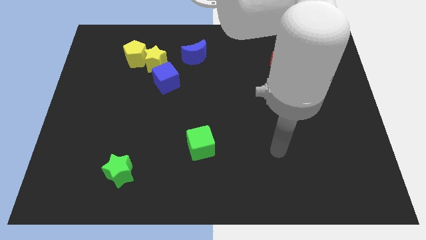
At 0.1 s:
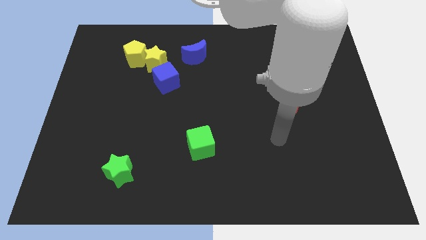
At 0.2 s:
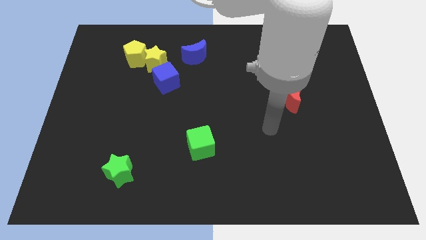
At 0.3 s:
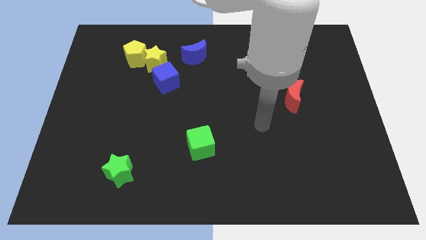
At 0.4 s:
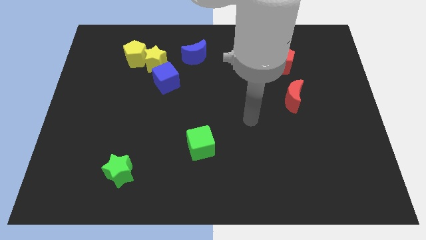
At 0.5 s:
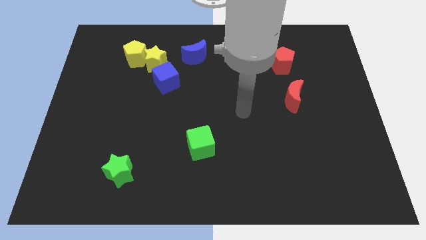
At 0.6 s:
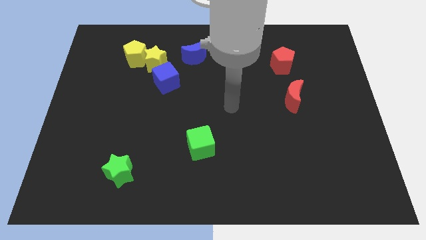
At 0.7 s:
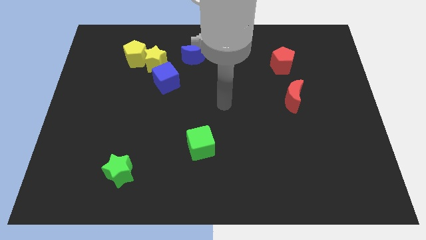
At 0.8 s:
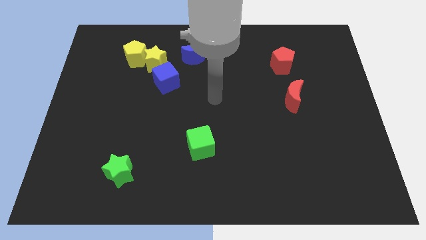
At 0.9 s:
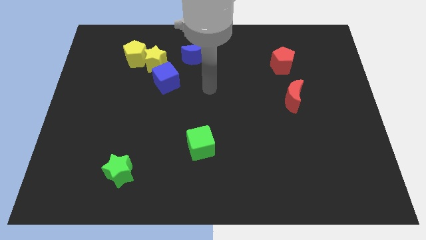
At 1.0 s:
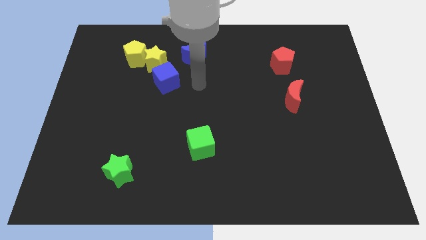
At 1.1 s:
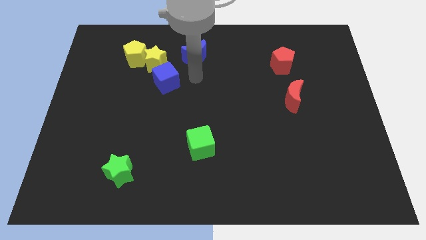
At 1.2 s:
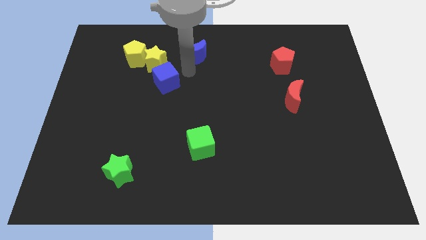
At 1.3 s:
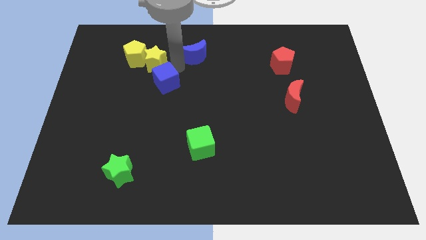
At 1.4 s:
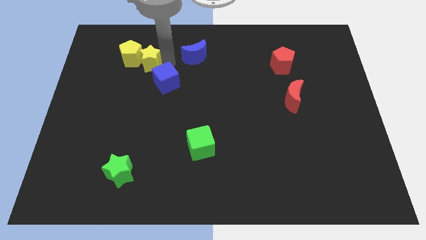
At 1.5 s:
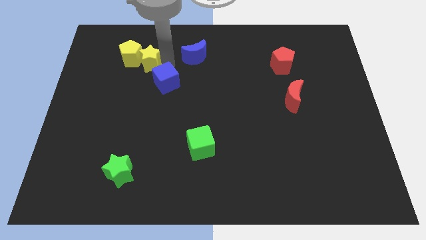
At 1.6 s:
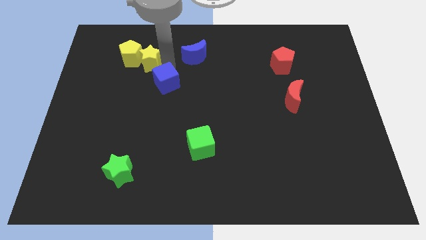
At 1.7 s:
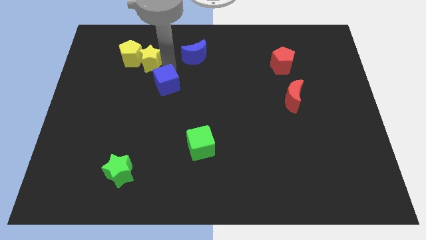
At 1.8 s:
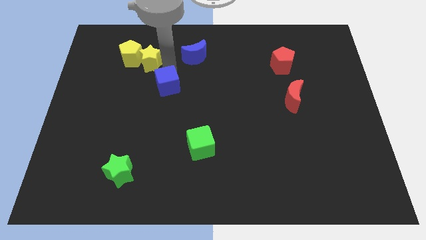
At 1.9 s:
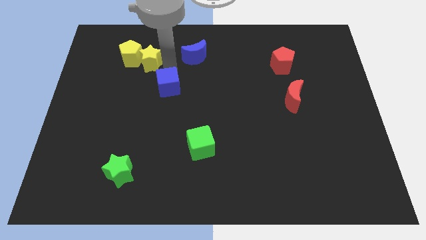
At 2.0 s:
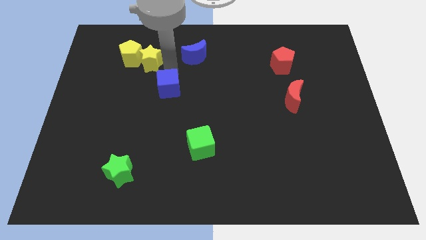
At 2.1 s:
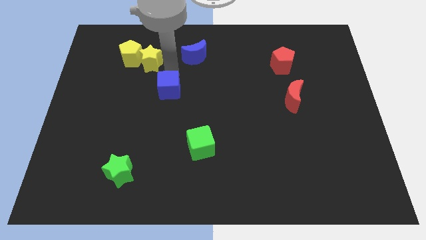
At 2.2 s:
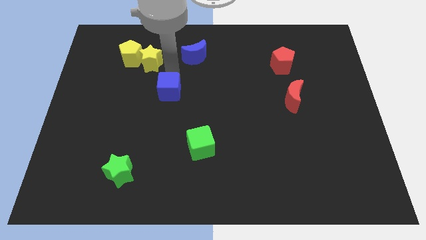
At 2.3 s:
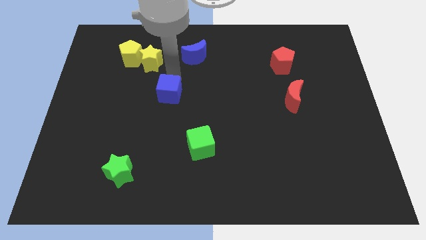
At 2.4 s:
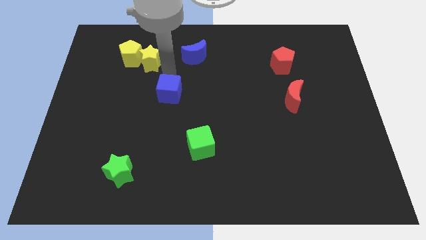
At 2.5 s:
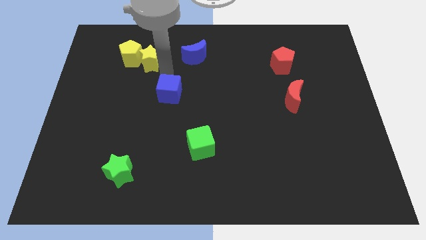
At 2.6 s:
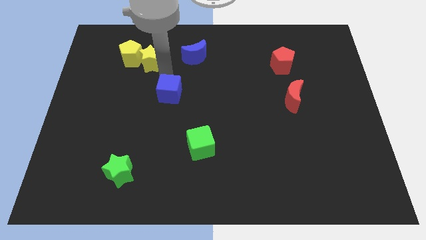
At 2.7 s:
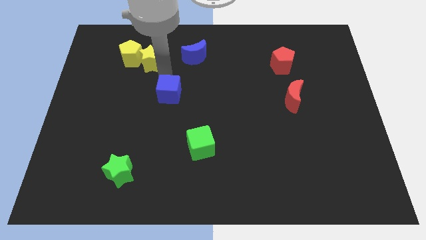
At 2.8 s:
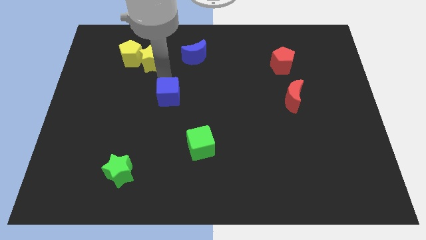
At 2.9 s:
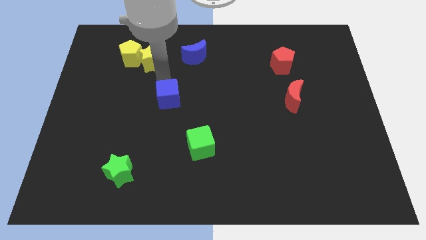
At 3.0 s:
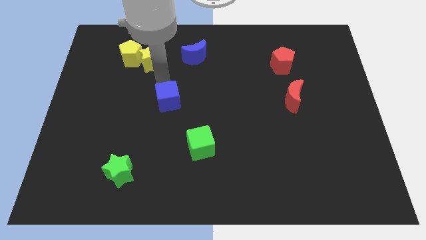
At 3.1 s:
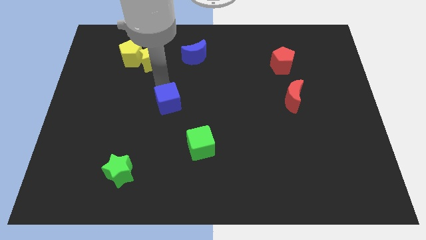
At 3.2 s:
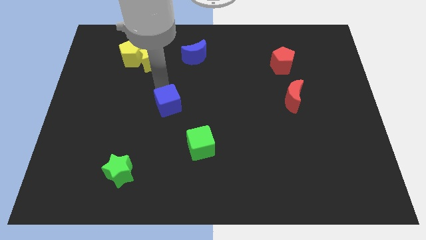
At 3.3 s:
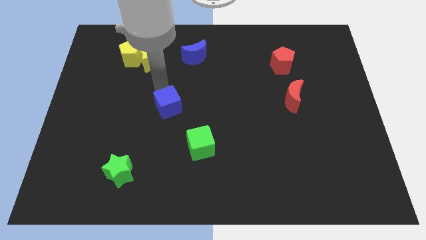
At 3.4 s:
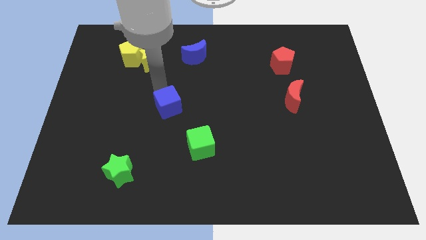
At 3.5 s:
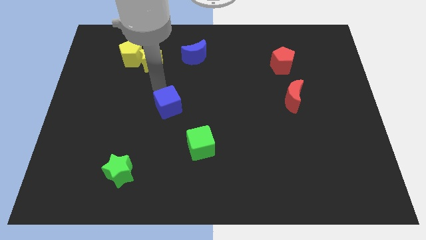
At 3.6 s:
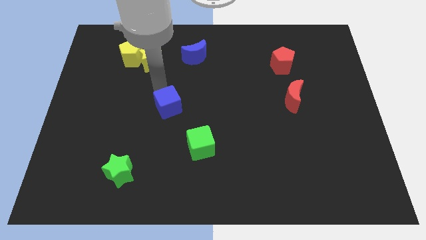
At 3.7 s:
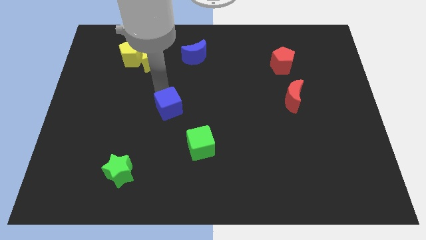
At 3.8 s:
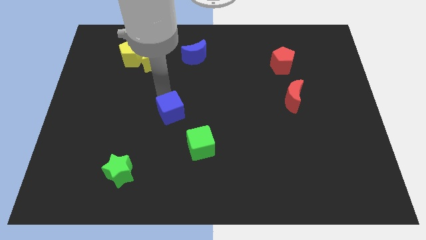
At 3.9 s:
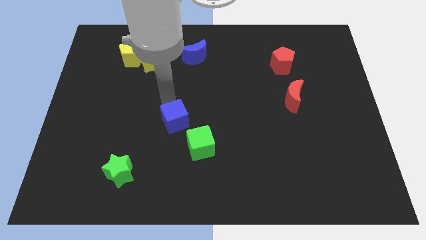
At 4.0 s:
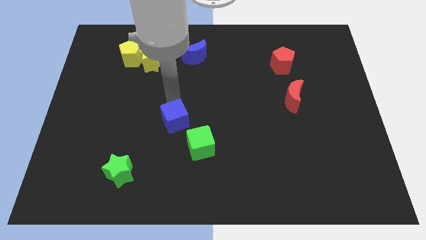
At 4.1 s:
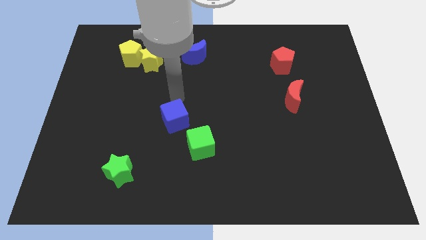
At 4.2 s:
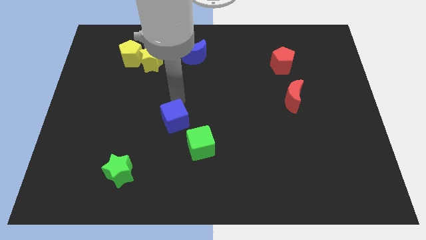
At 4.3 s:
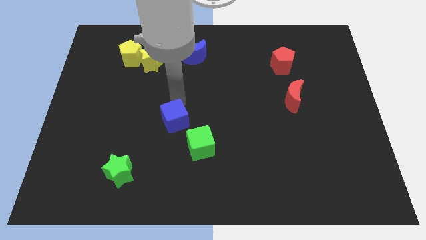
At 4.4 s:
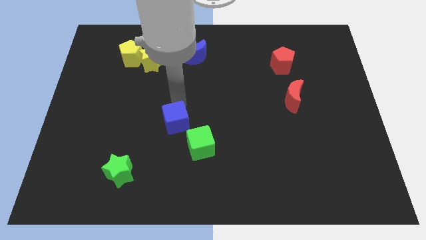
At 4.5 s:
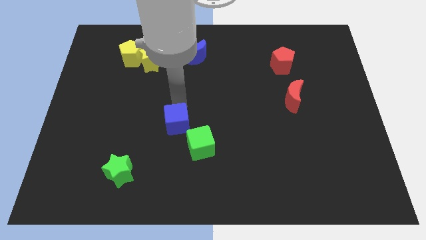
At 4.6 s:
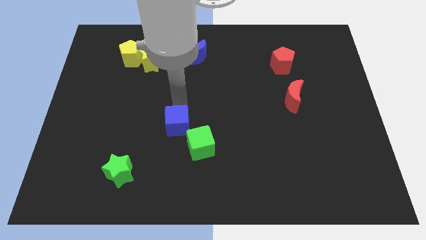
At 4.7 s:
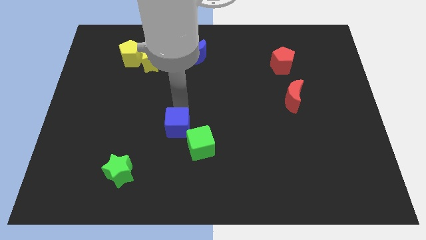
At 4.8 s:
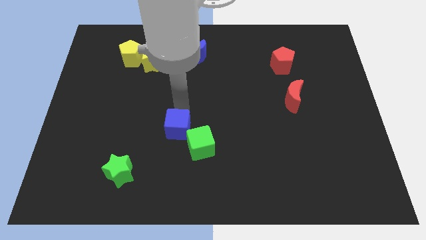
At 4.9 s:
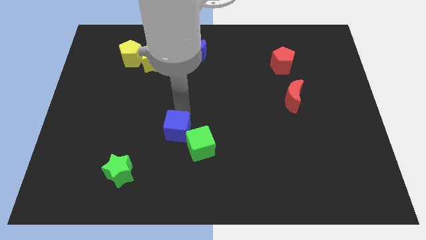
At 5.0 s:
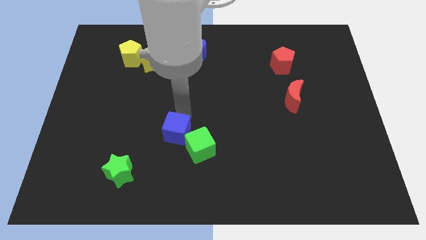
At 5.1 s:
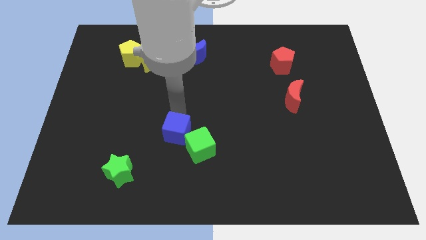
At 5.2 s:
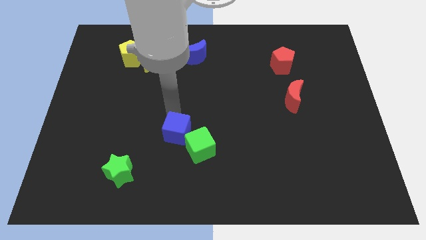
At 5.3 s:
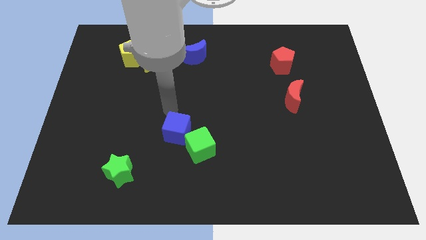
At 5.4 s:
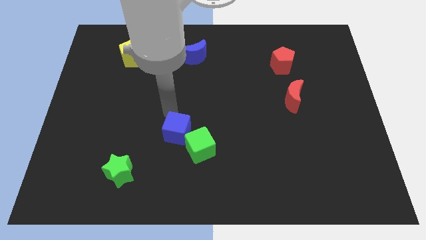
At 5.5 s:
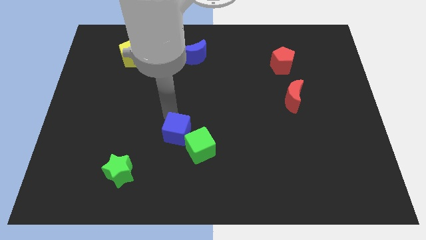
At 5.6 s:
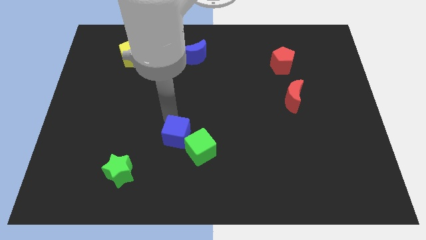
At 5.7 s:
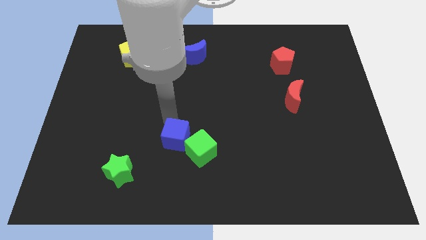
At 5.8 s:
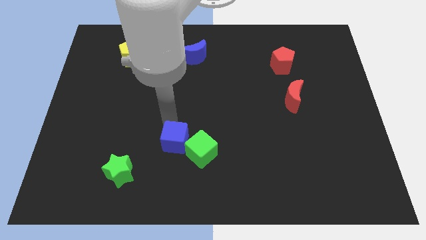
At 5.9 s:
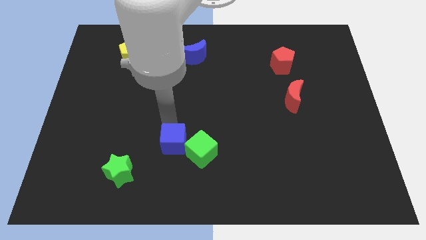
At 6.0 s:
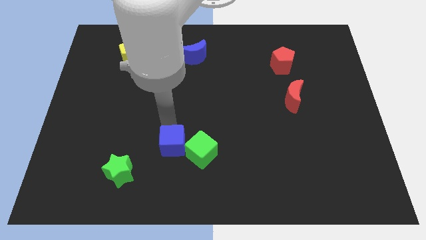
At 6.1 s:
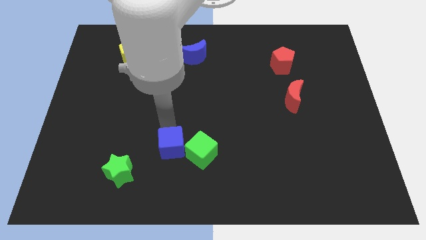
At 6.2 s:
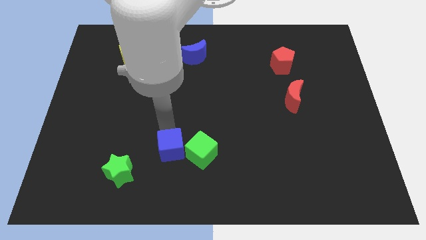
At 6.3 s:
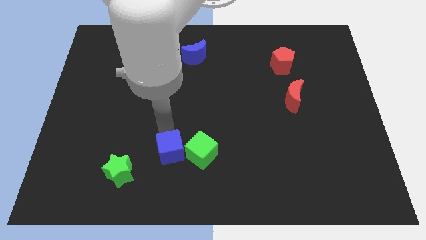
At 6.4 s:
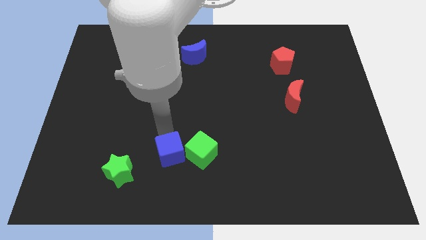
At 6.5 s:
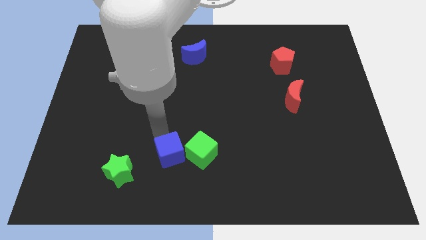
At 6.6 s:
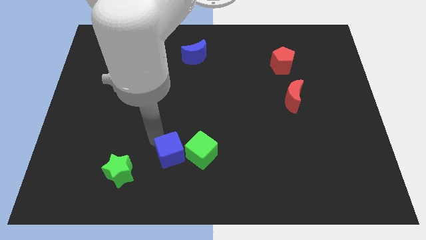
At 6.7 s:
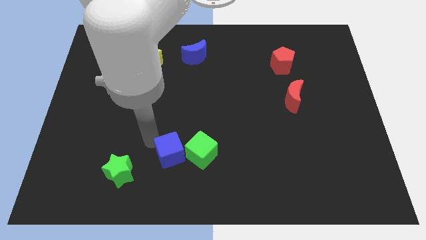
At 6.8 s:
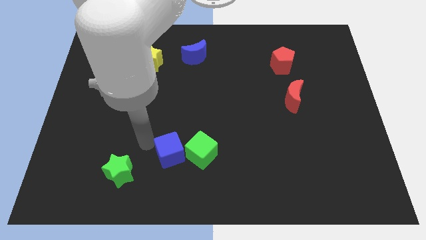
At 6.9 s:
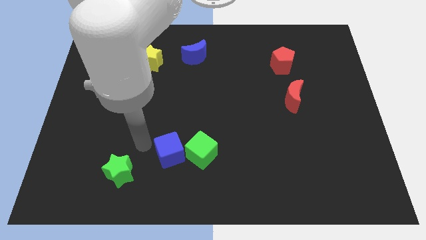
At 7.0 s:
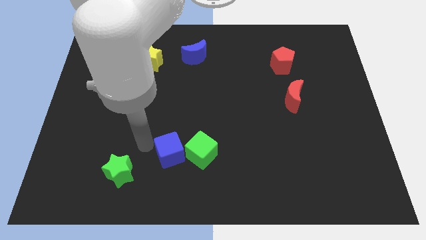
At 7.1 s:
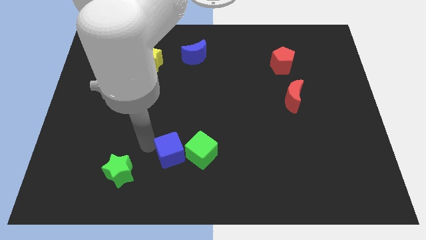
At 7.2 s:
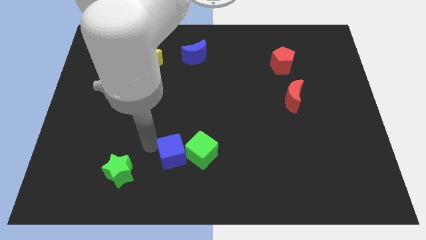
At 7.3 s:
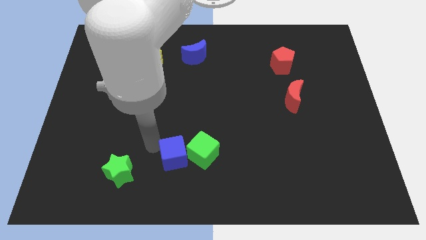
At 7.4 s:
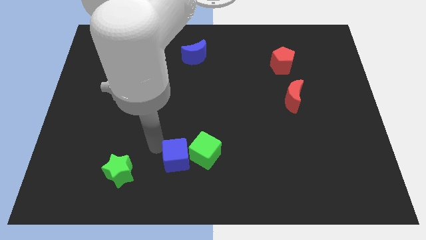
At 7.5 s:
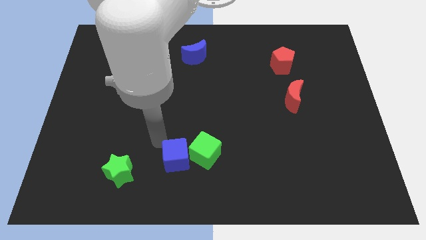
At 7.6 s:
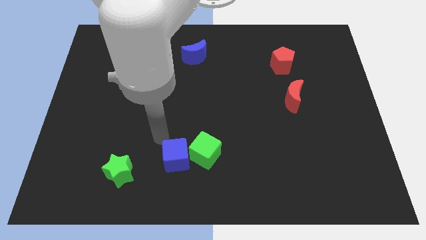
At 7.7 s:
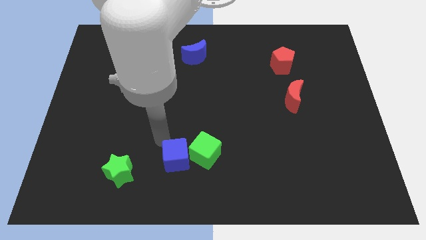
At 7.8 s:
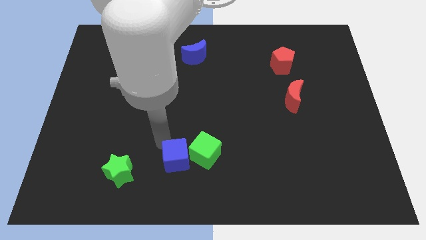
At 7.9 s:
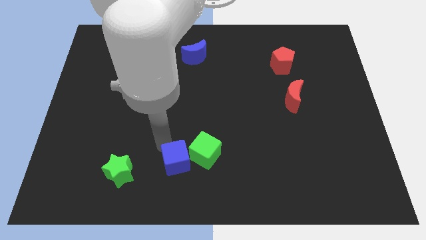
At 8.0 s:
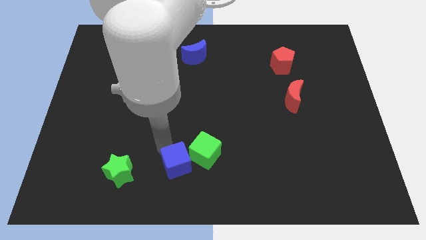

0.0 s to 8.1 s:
push the blue cube to the bottom side
